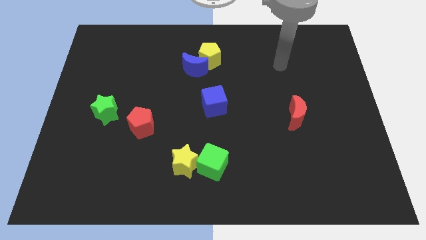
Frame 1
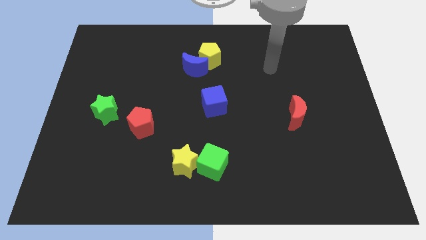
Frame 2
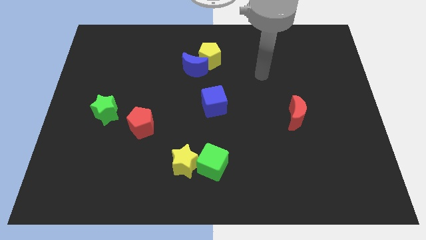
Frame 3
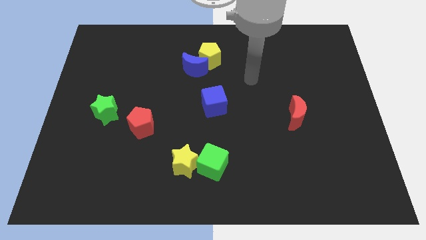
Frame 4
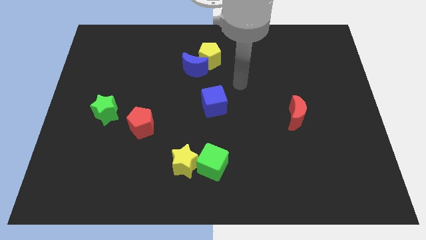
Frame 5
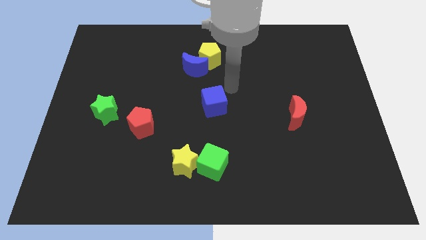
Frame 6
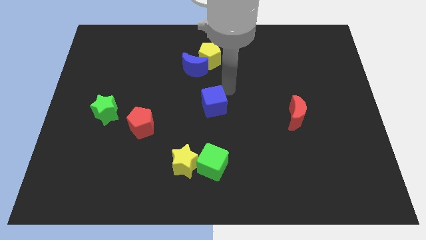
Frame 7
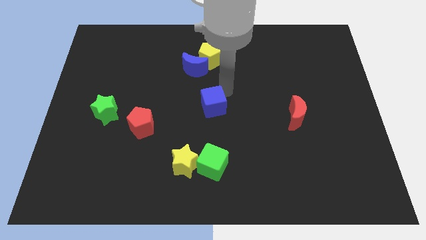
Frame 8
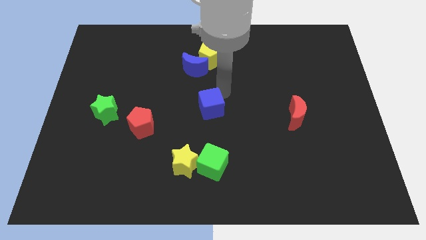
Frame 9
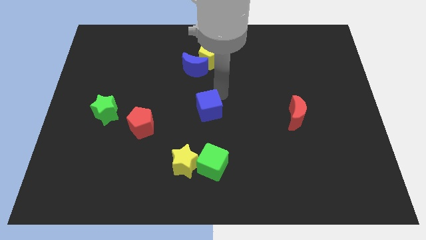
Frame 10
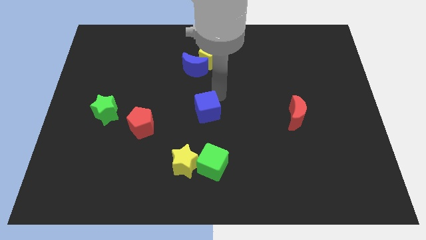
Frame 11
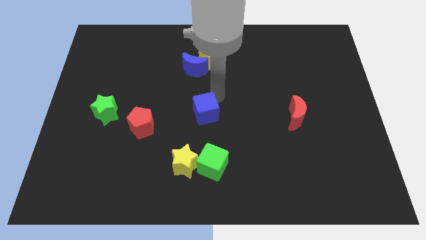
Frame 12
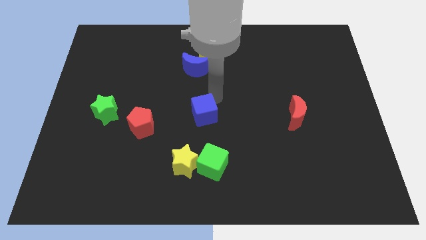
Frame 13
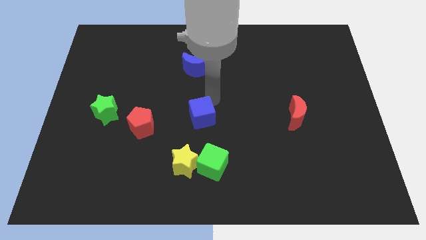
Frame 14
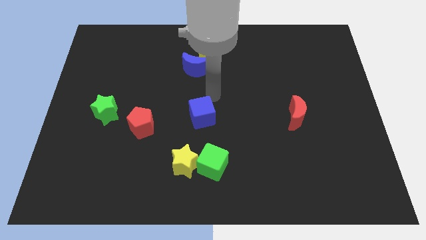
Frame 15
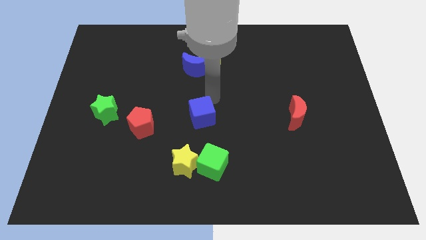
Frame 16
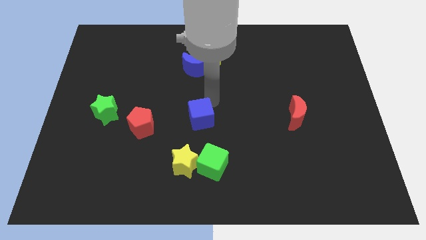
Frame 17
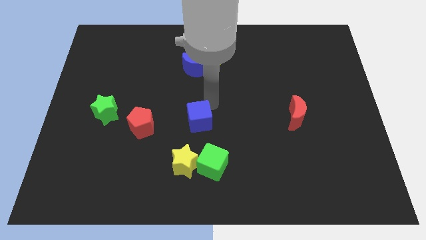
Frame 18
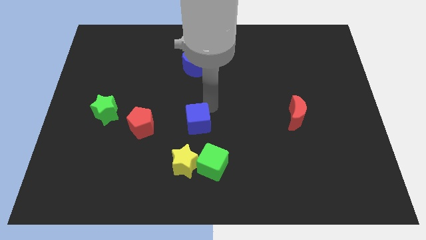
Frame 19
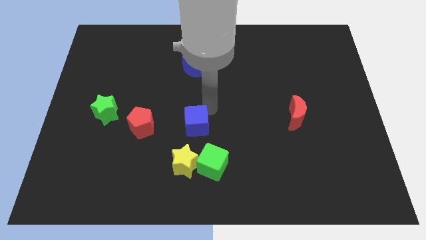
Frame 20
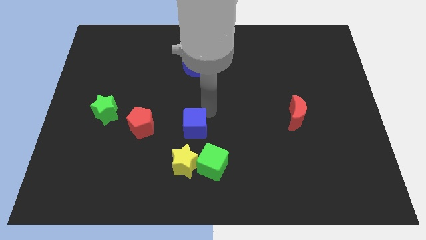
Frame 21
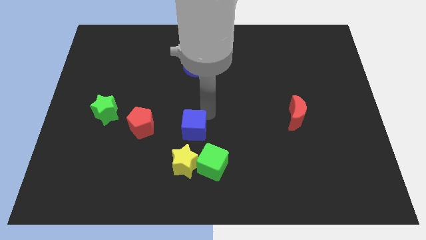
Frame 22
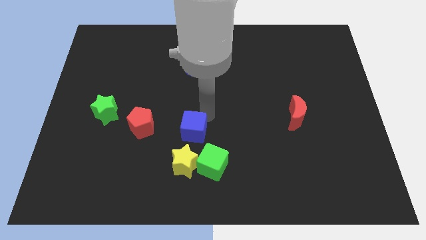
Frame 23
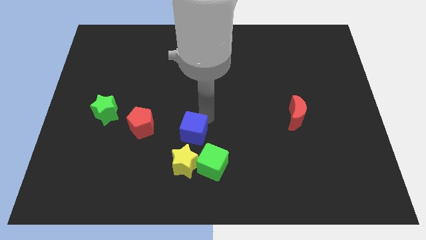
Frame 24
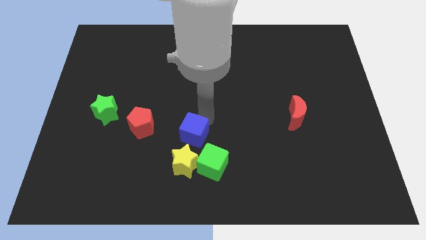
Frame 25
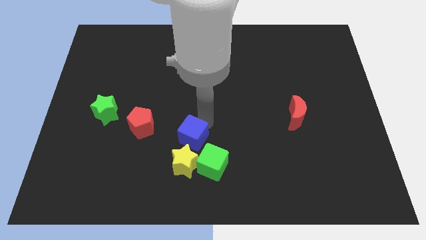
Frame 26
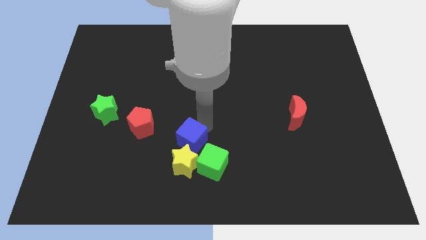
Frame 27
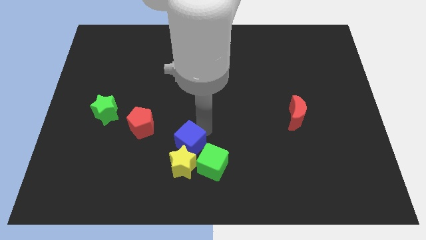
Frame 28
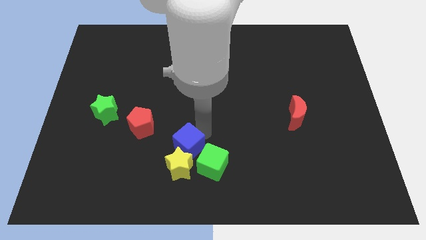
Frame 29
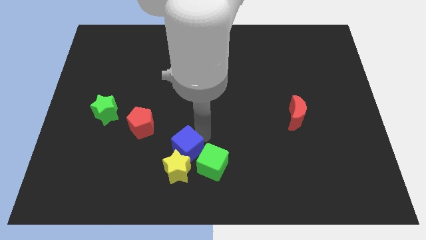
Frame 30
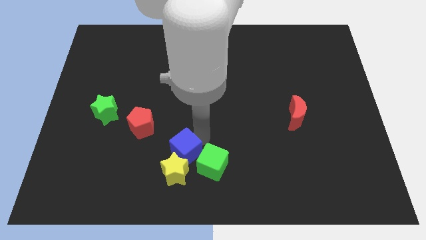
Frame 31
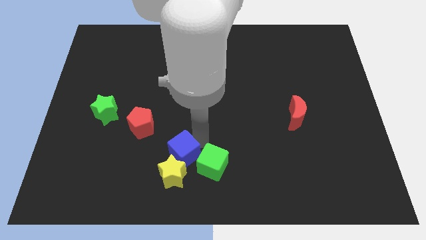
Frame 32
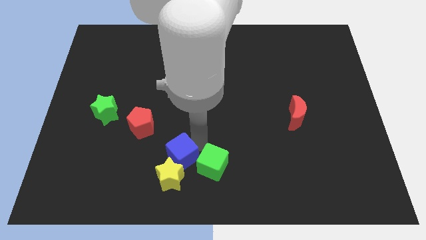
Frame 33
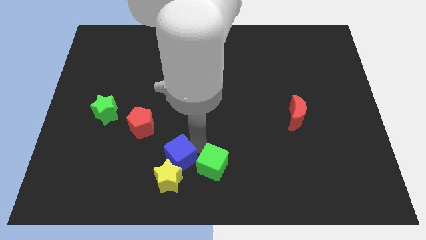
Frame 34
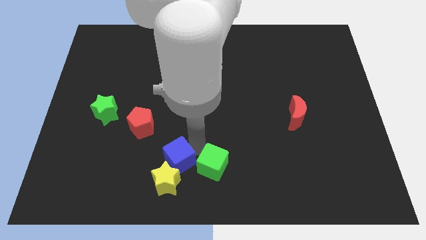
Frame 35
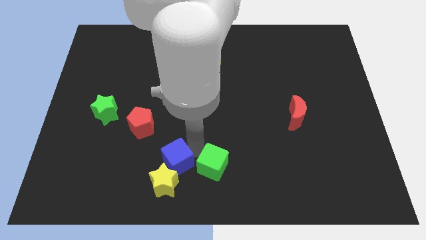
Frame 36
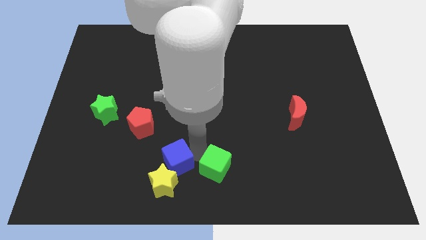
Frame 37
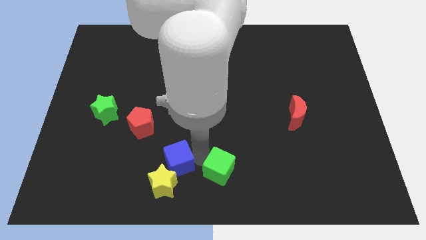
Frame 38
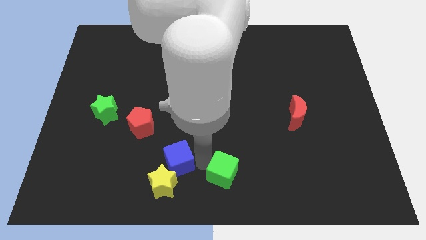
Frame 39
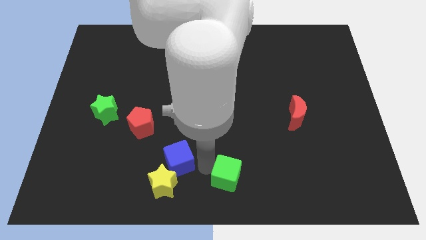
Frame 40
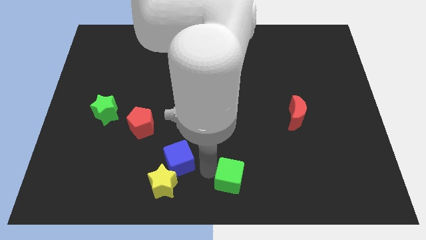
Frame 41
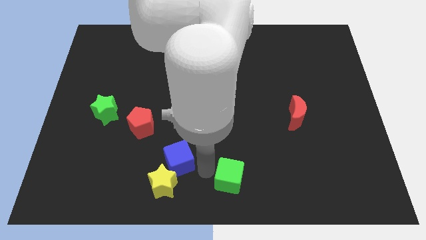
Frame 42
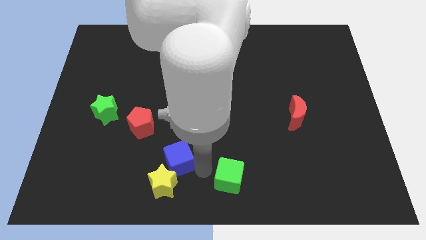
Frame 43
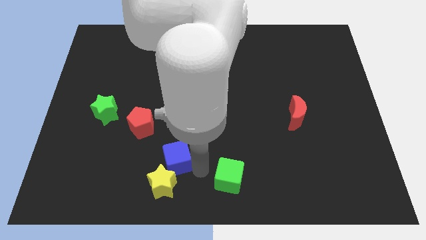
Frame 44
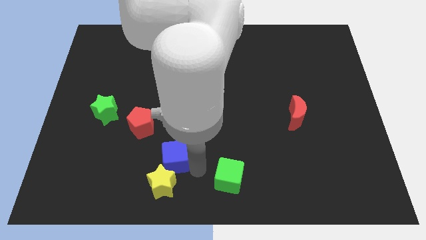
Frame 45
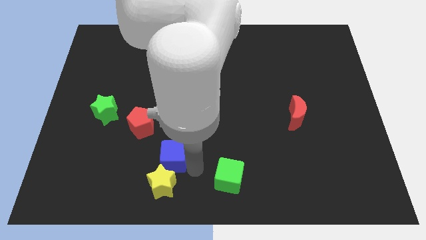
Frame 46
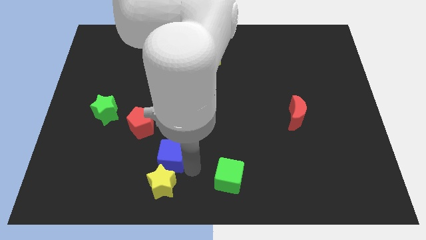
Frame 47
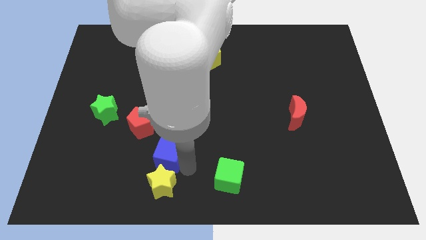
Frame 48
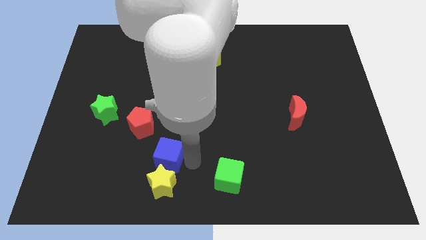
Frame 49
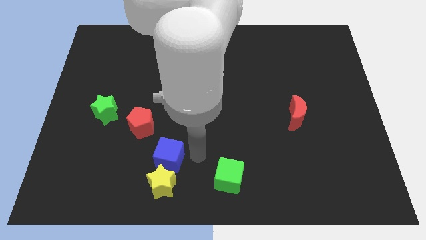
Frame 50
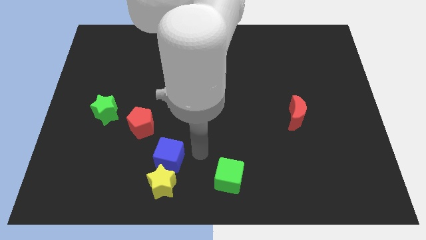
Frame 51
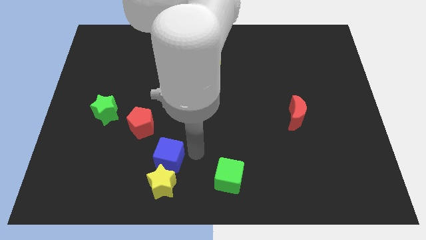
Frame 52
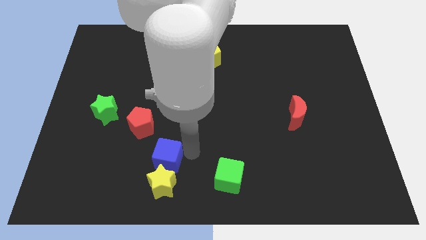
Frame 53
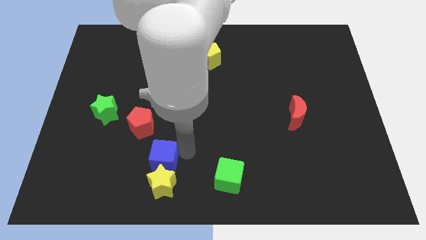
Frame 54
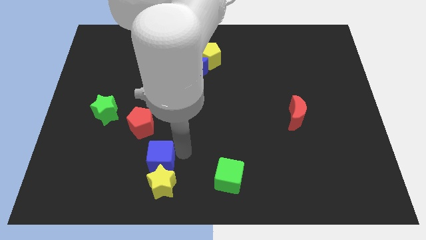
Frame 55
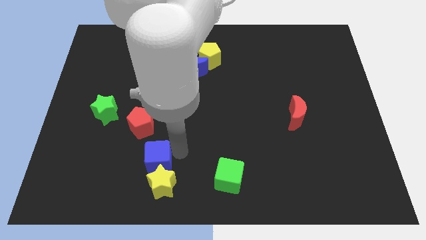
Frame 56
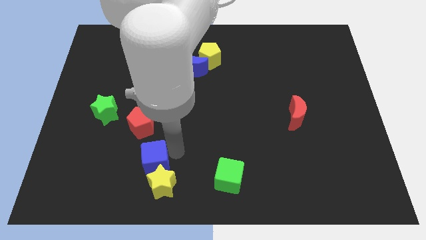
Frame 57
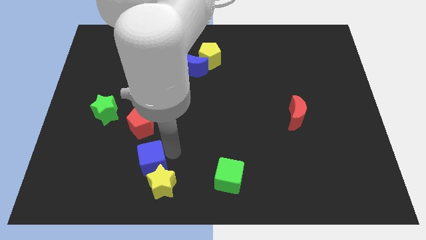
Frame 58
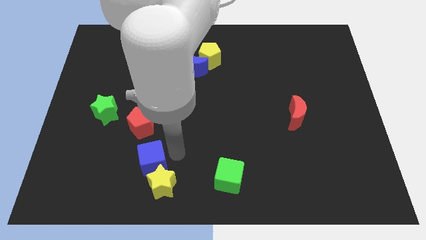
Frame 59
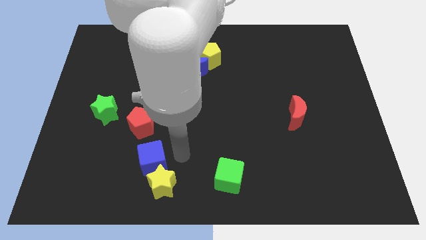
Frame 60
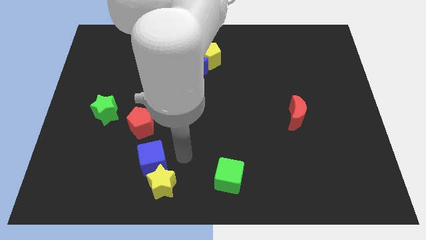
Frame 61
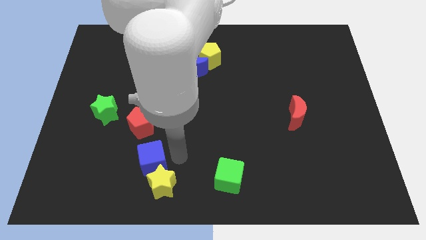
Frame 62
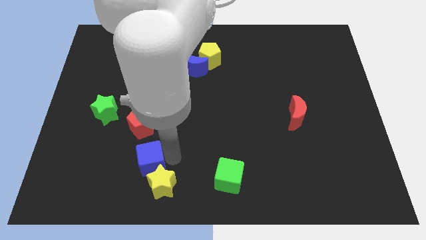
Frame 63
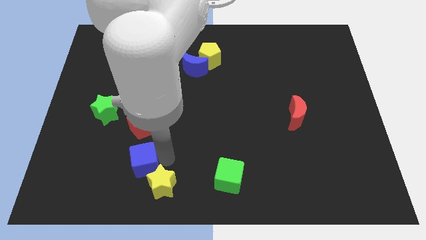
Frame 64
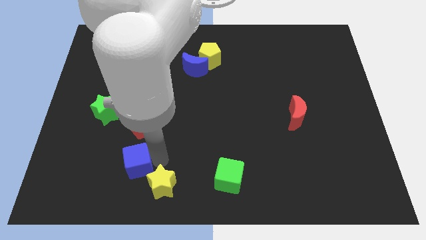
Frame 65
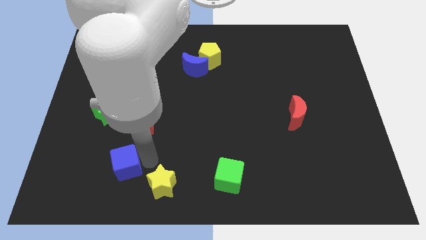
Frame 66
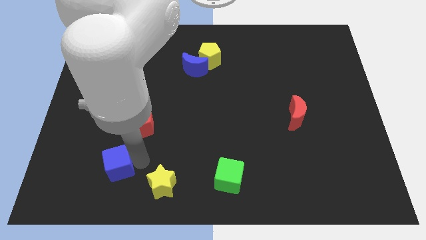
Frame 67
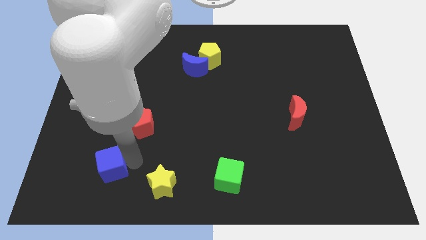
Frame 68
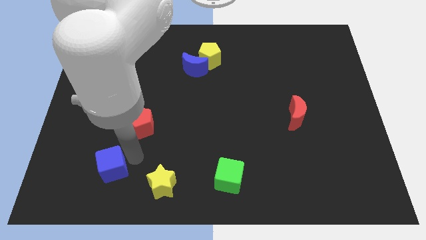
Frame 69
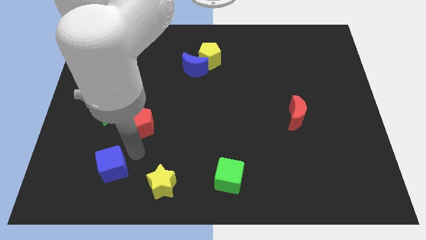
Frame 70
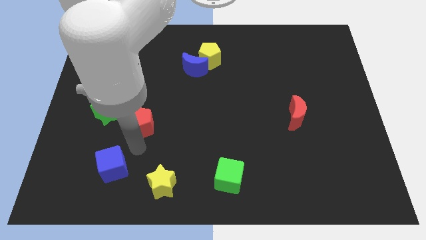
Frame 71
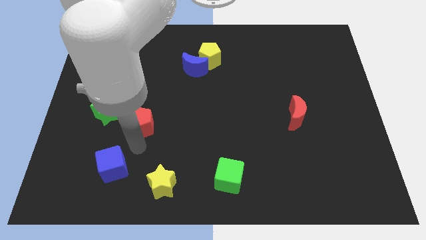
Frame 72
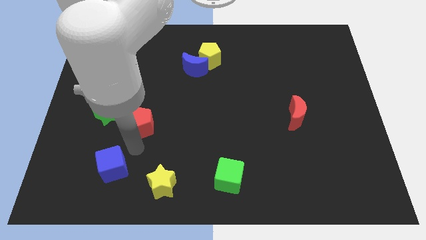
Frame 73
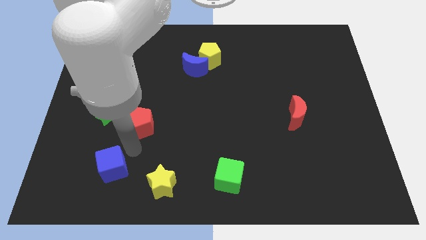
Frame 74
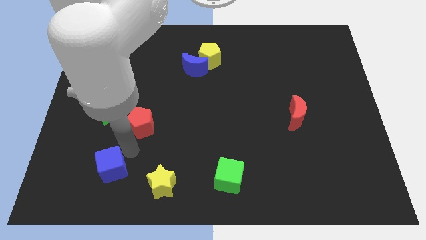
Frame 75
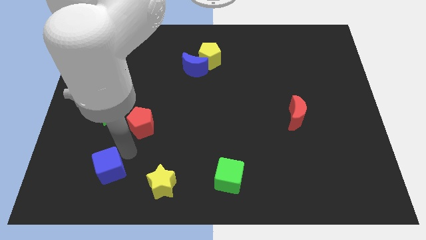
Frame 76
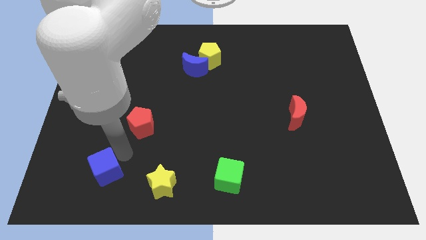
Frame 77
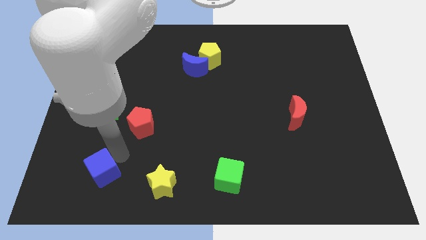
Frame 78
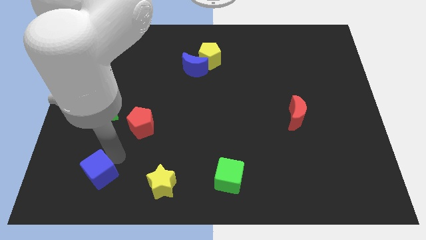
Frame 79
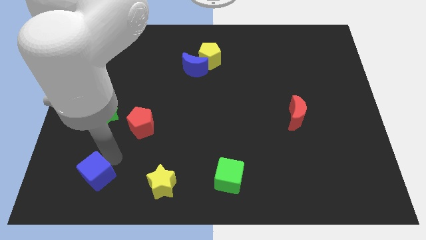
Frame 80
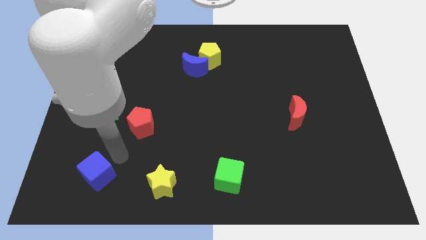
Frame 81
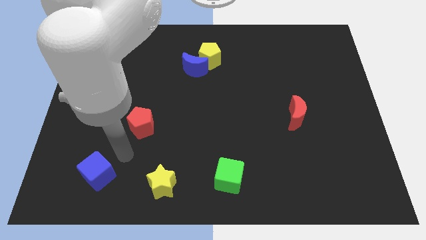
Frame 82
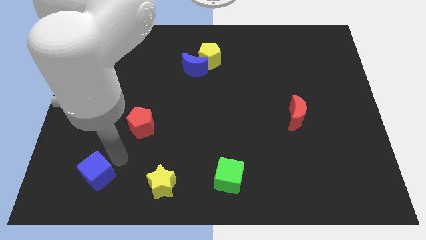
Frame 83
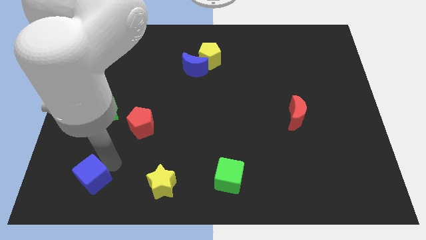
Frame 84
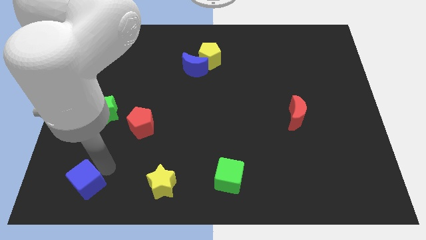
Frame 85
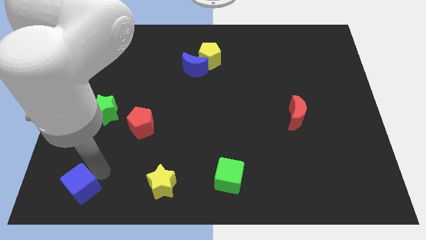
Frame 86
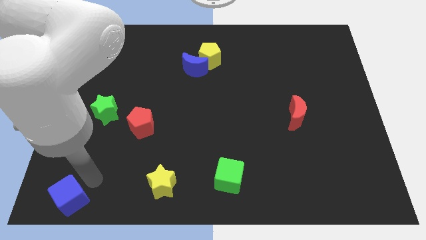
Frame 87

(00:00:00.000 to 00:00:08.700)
move the blue cube to the bottom left of the board
